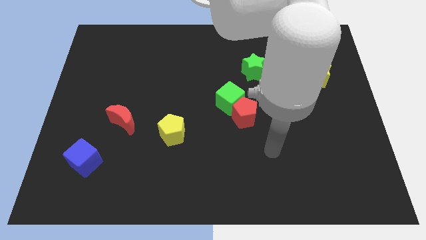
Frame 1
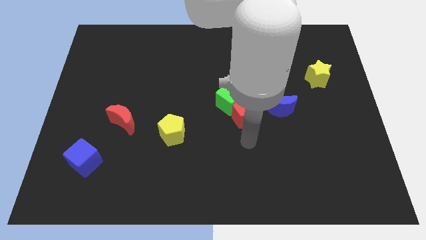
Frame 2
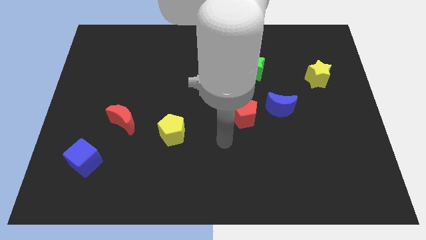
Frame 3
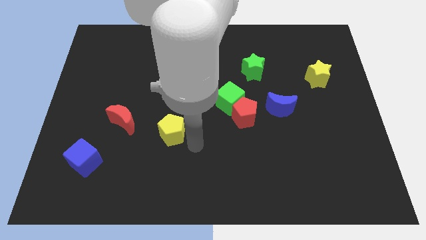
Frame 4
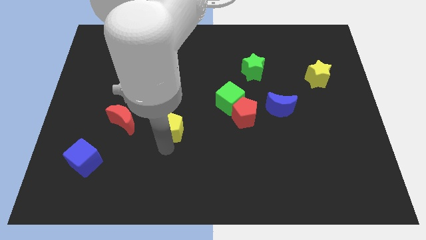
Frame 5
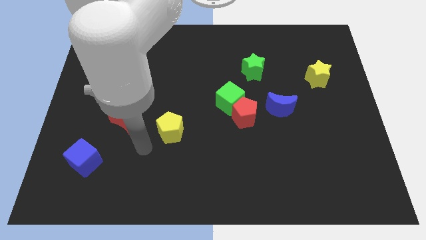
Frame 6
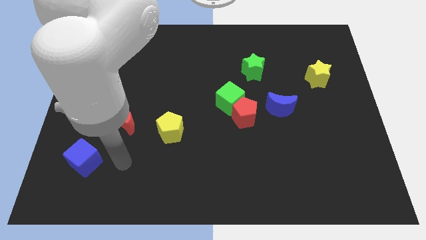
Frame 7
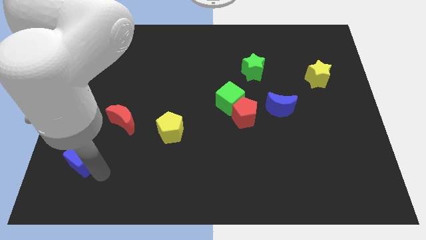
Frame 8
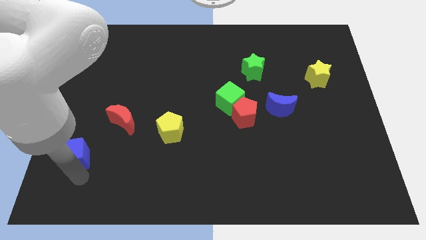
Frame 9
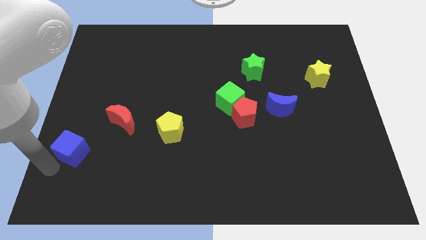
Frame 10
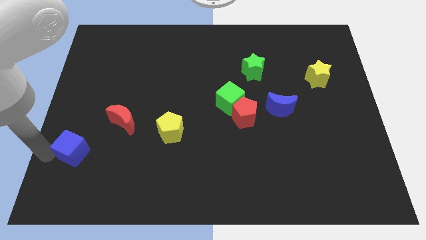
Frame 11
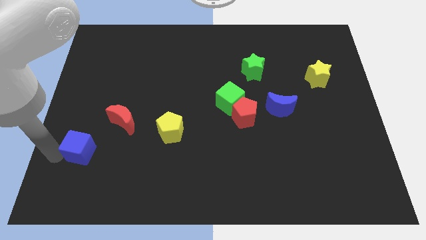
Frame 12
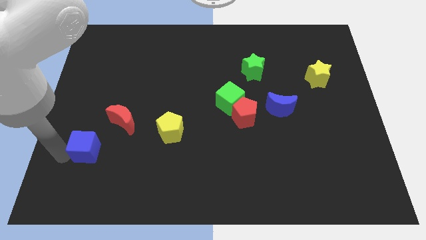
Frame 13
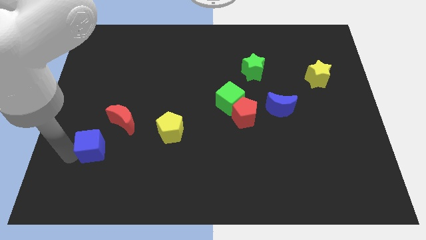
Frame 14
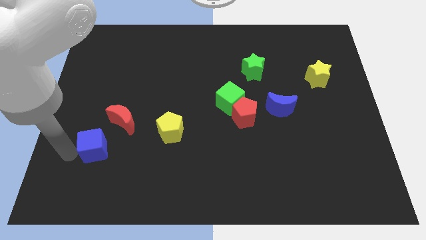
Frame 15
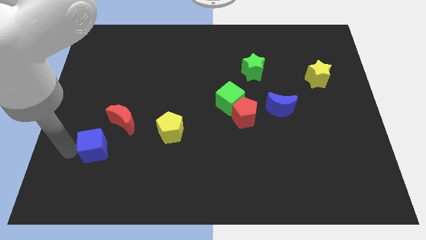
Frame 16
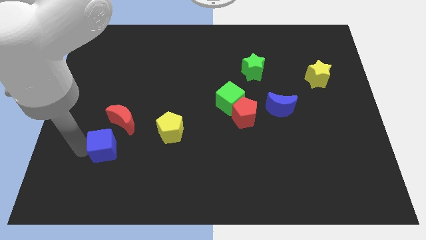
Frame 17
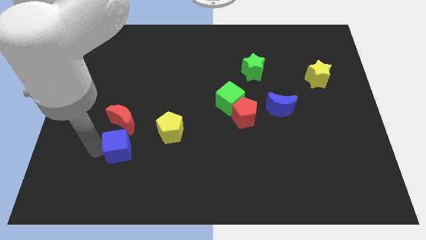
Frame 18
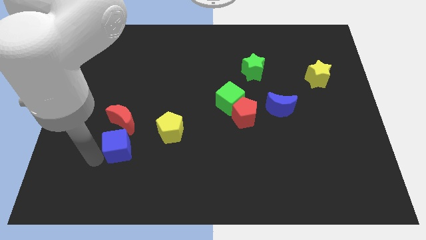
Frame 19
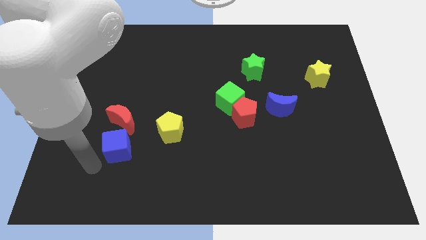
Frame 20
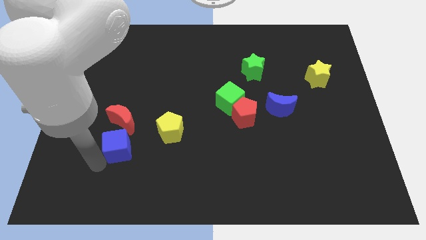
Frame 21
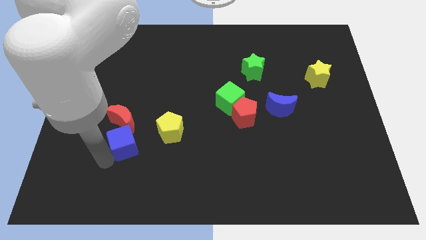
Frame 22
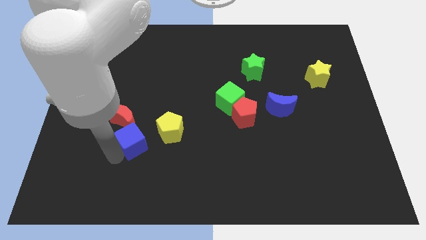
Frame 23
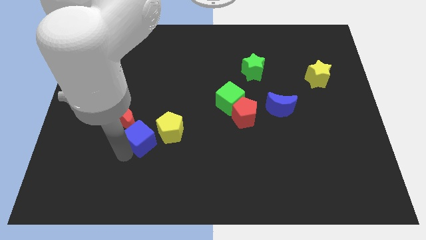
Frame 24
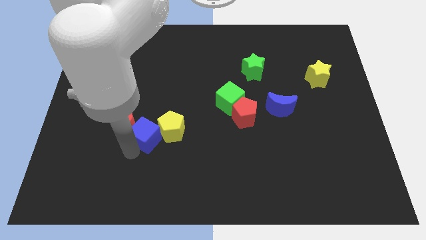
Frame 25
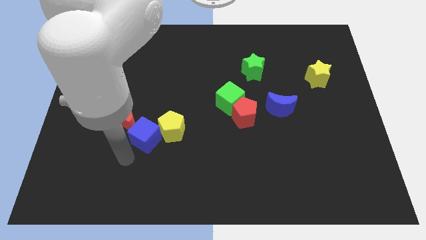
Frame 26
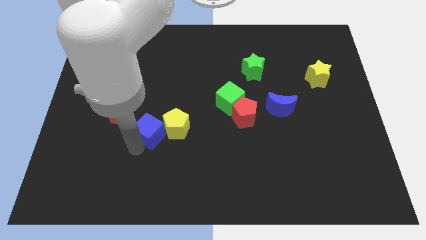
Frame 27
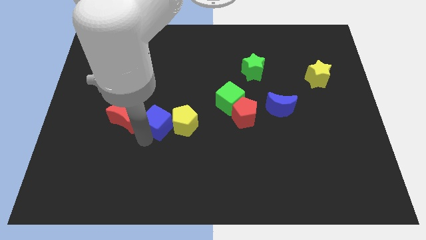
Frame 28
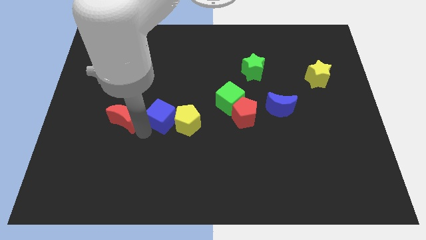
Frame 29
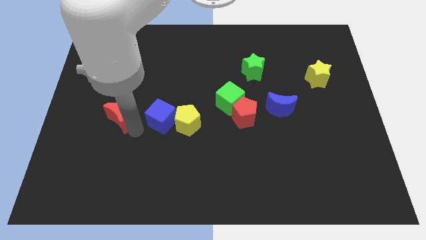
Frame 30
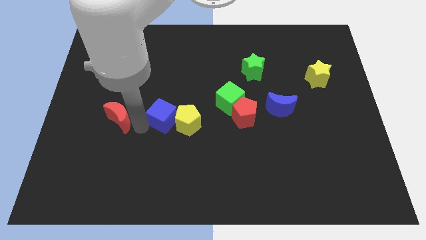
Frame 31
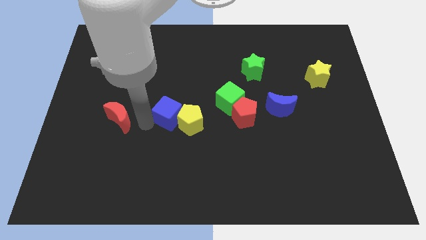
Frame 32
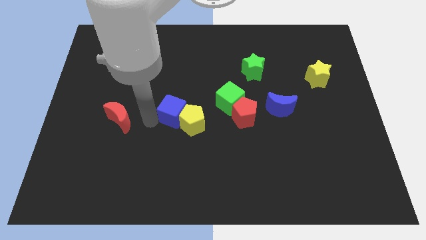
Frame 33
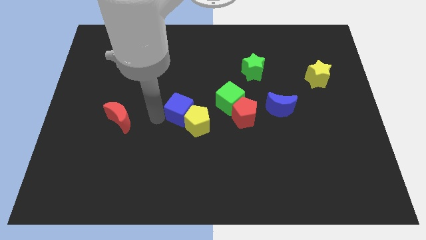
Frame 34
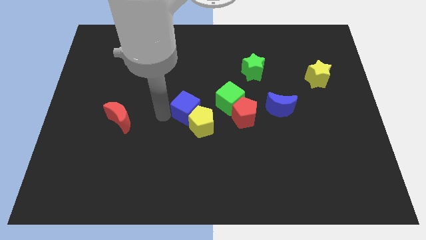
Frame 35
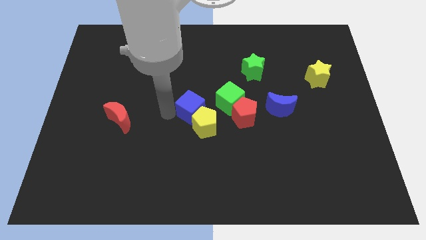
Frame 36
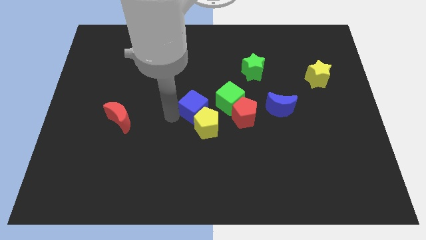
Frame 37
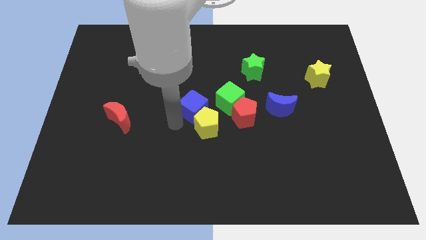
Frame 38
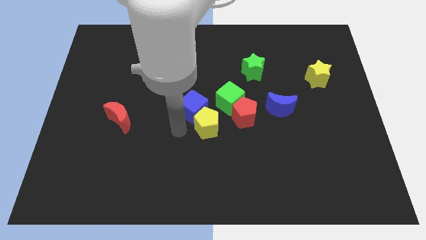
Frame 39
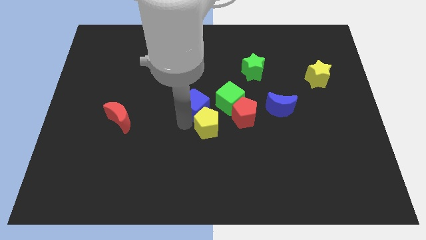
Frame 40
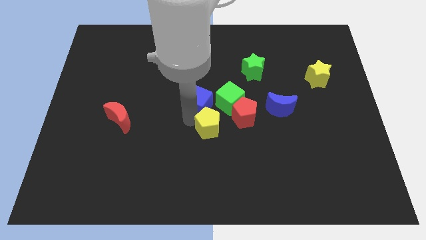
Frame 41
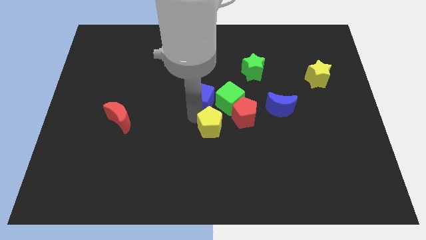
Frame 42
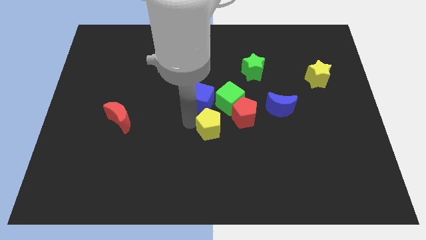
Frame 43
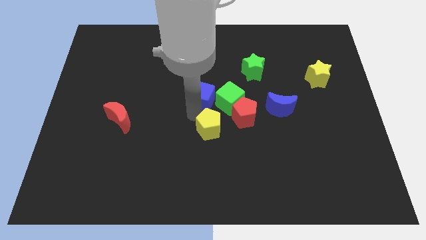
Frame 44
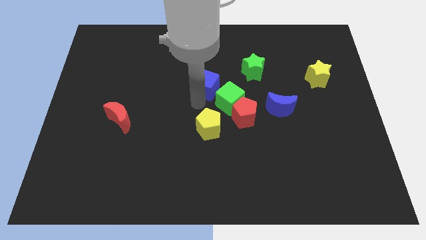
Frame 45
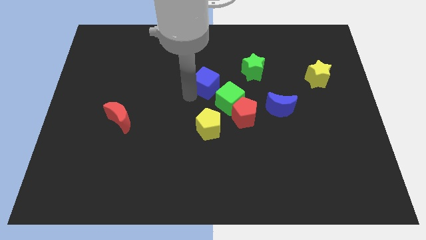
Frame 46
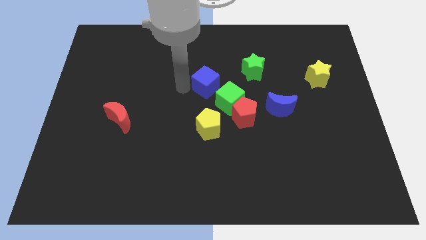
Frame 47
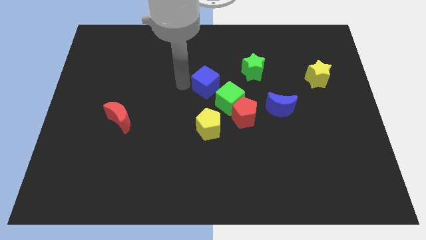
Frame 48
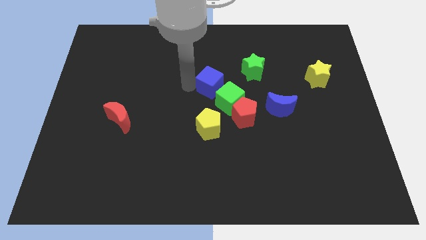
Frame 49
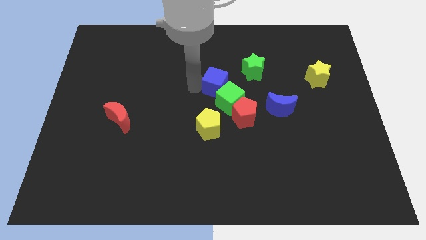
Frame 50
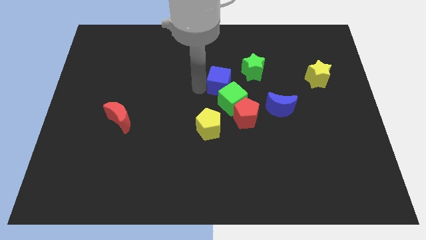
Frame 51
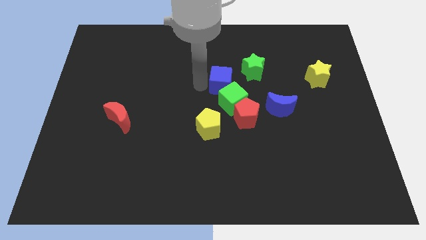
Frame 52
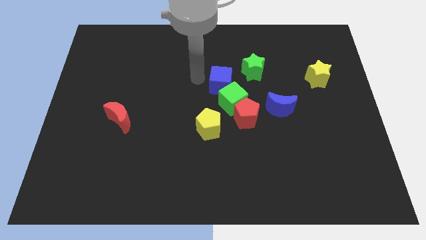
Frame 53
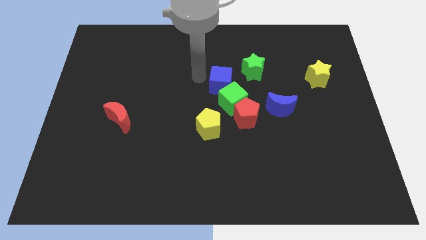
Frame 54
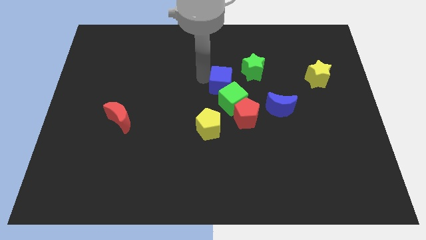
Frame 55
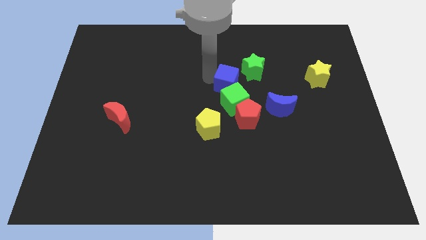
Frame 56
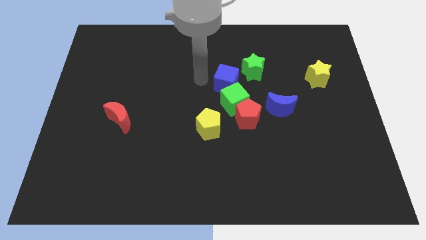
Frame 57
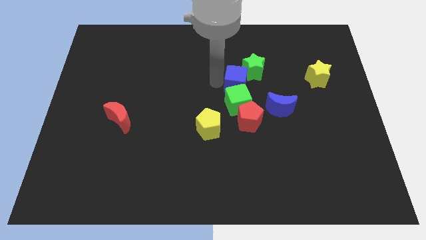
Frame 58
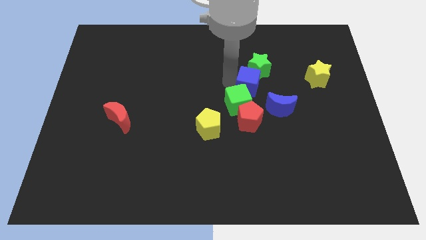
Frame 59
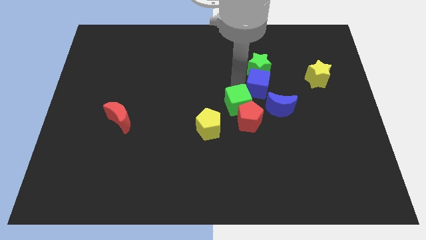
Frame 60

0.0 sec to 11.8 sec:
slide the blue cube above the blue moon

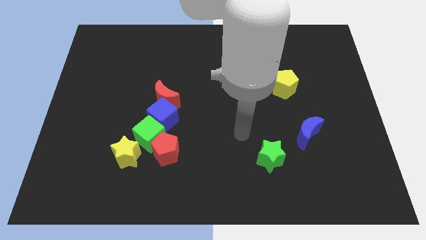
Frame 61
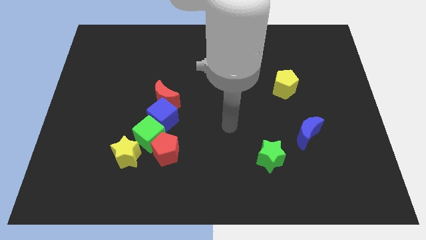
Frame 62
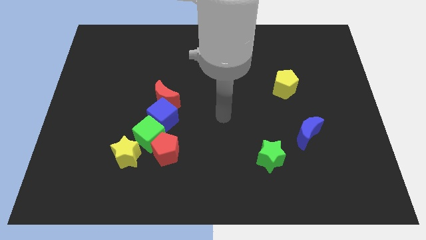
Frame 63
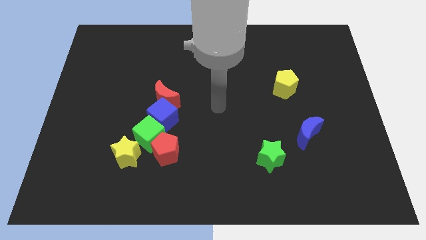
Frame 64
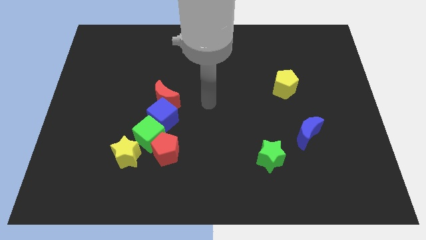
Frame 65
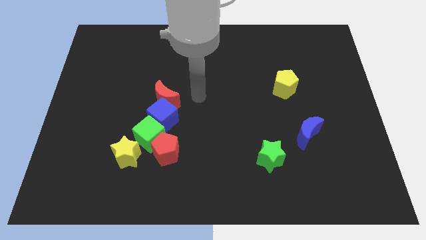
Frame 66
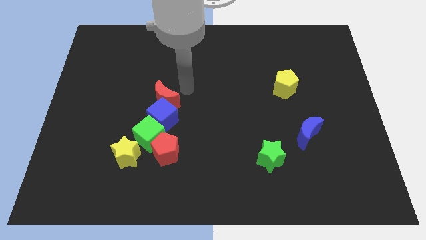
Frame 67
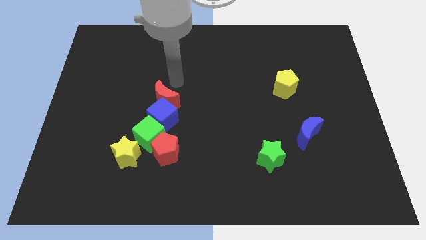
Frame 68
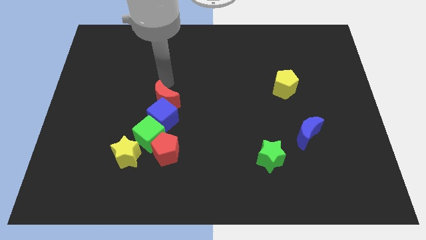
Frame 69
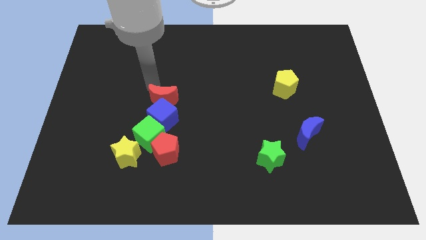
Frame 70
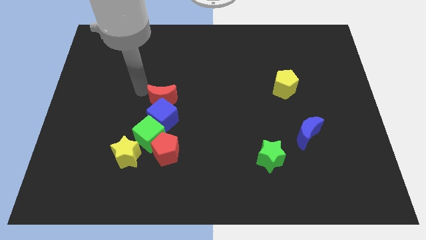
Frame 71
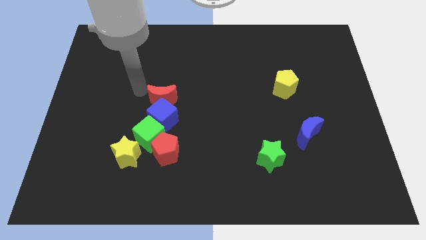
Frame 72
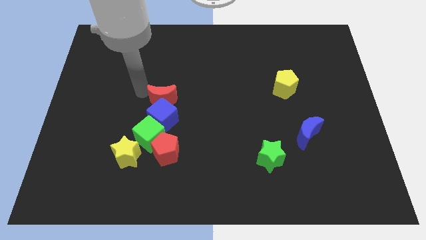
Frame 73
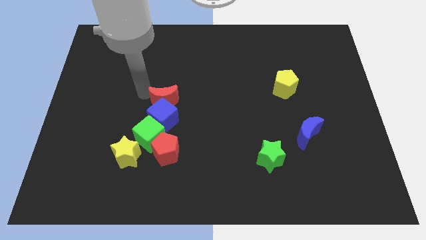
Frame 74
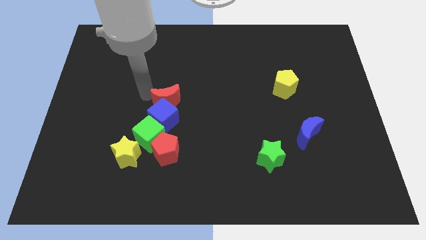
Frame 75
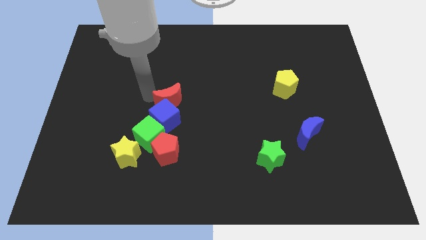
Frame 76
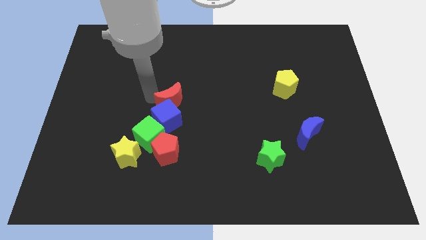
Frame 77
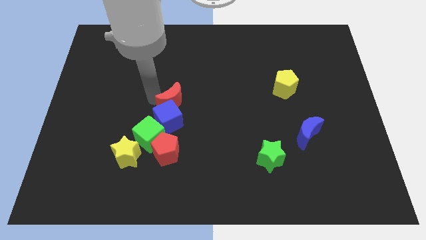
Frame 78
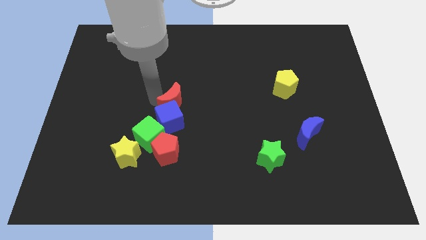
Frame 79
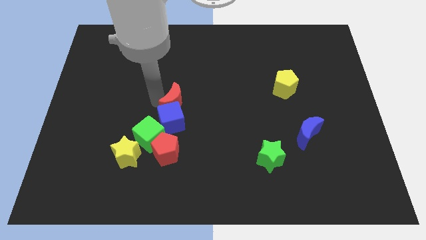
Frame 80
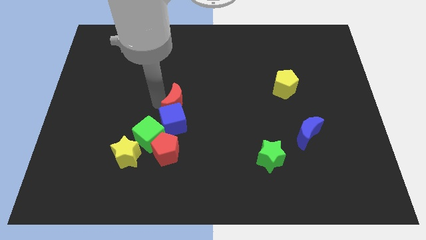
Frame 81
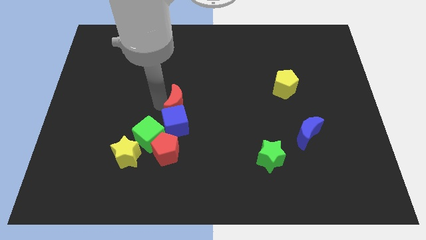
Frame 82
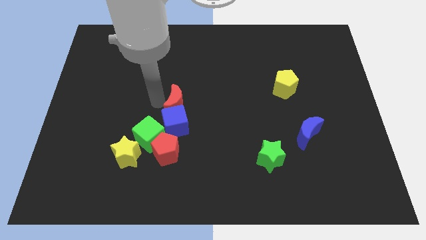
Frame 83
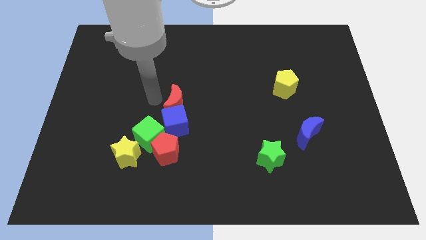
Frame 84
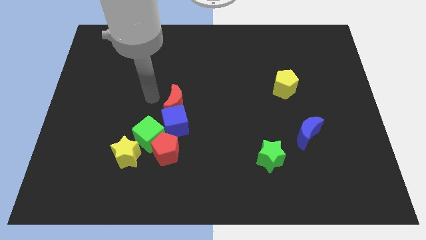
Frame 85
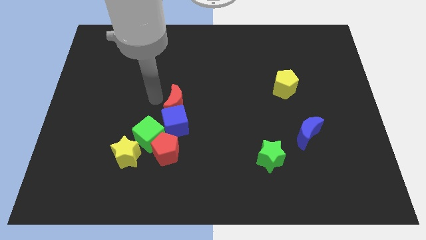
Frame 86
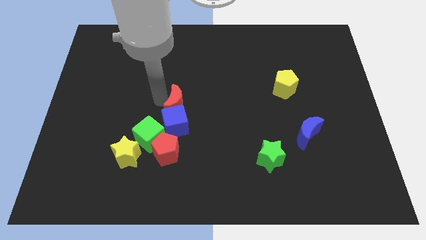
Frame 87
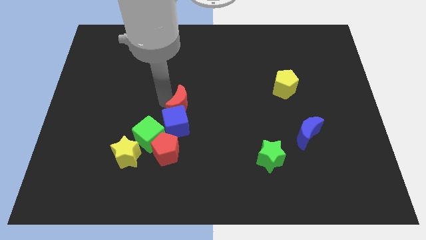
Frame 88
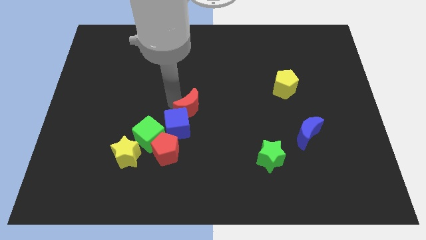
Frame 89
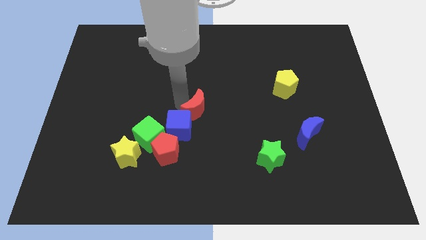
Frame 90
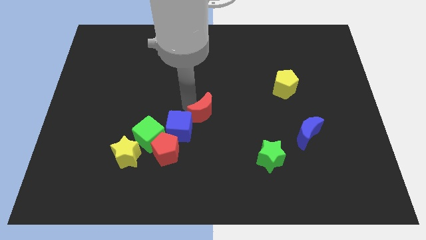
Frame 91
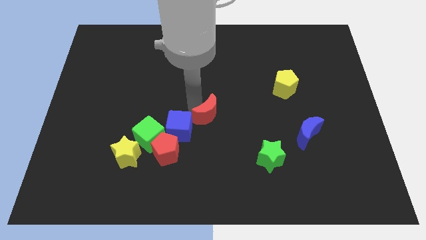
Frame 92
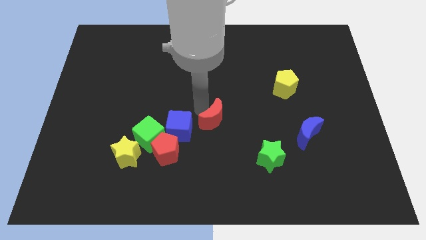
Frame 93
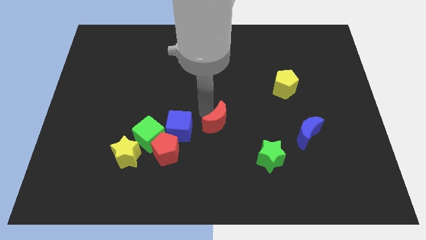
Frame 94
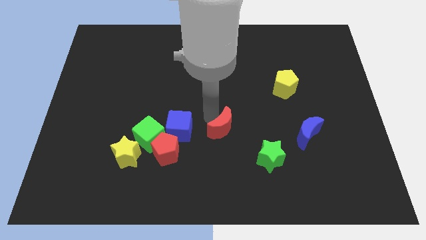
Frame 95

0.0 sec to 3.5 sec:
put the red moon to the top left of the green star
